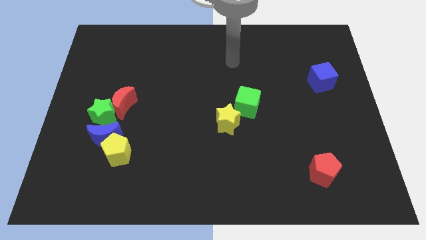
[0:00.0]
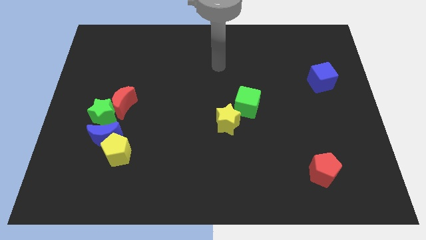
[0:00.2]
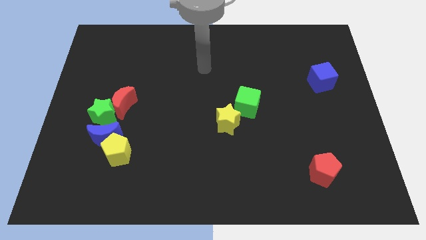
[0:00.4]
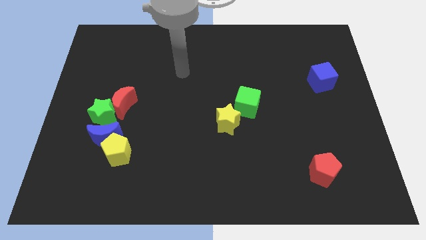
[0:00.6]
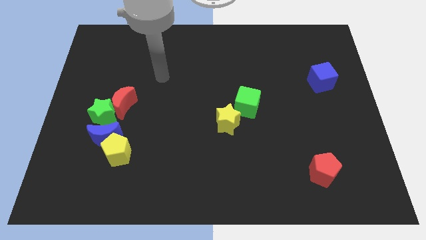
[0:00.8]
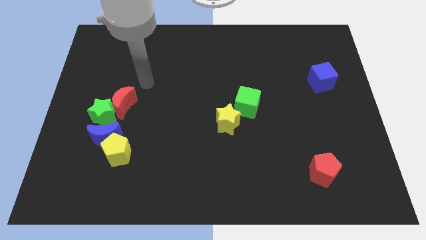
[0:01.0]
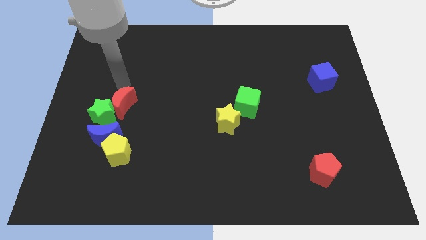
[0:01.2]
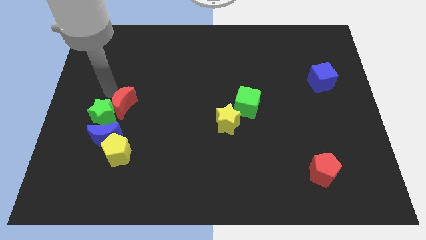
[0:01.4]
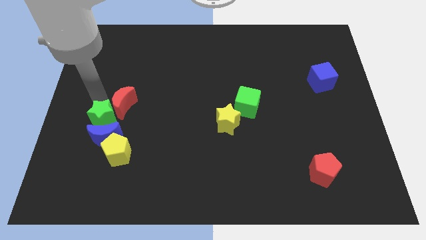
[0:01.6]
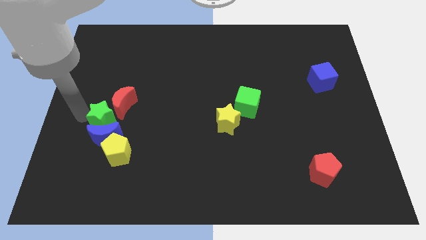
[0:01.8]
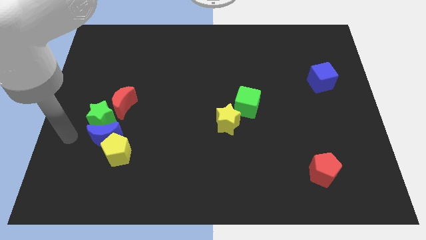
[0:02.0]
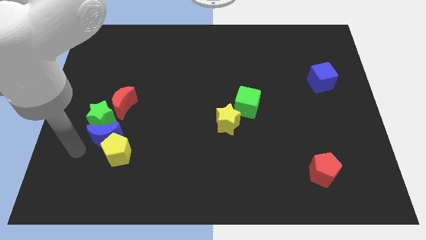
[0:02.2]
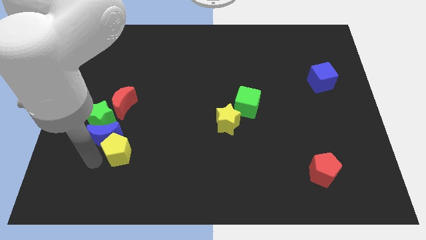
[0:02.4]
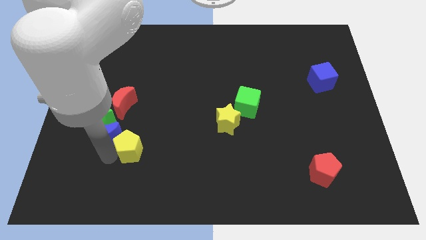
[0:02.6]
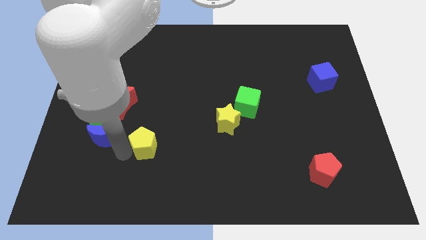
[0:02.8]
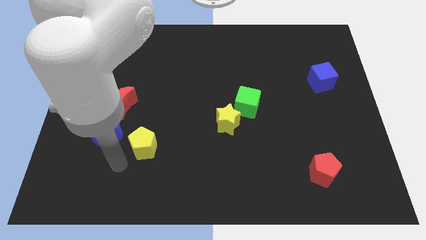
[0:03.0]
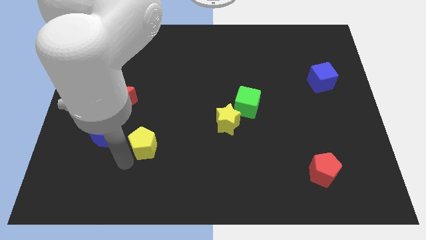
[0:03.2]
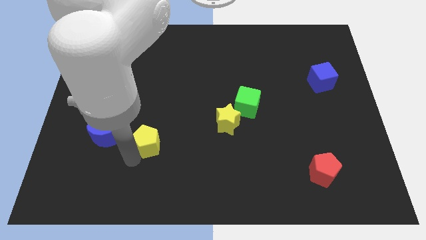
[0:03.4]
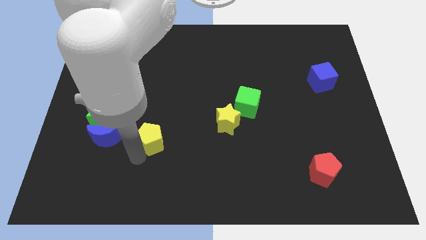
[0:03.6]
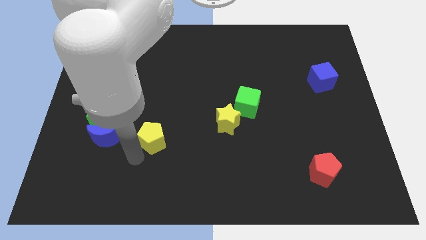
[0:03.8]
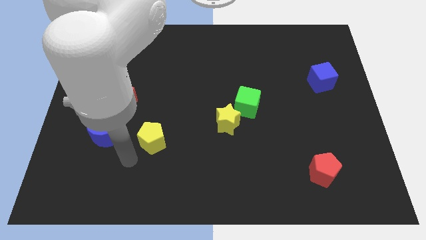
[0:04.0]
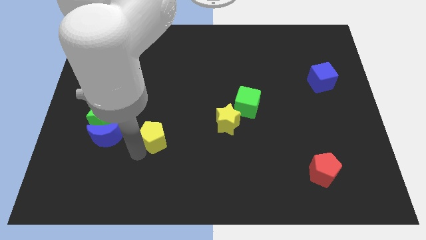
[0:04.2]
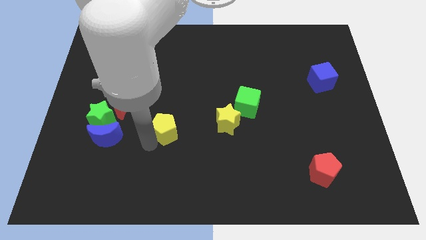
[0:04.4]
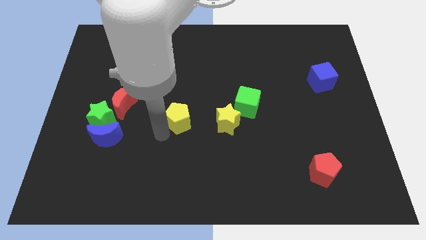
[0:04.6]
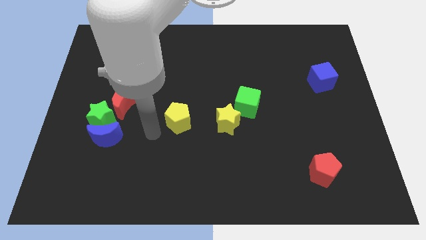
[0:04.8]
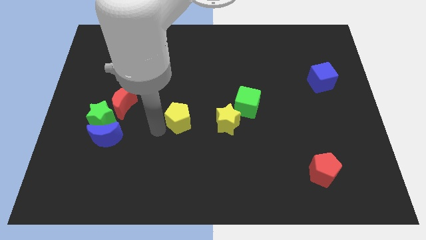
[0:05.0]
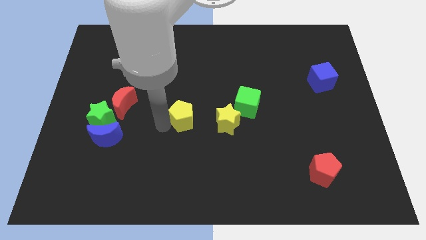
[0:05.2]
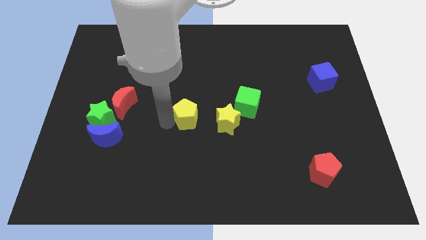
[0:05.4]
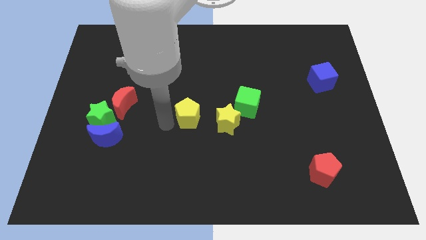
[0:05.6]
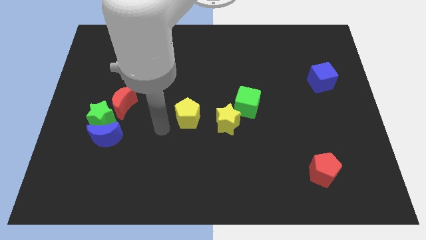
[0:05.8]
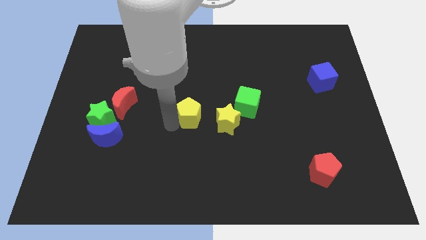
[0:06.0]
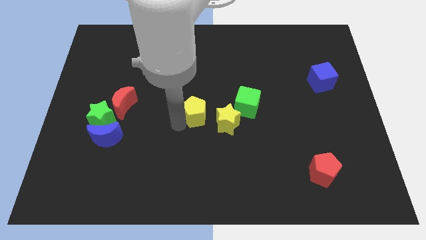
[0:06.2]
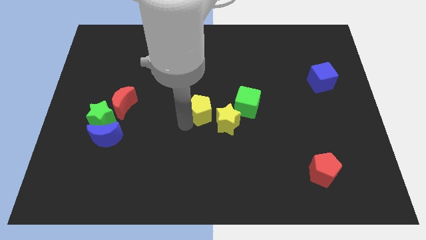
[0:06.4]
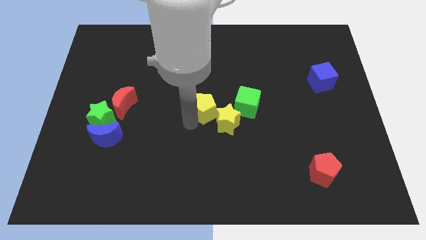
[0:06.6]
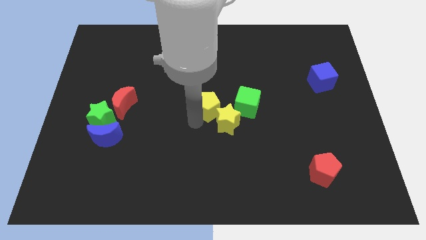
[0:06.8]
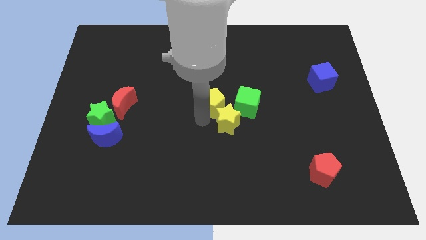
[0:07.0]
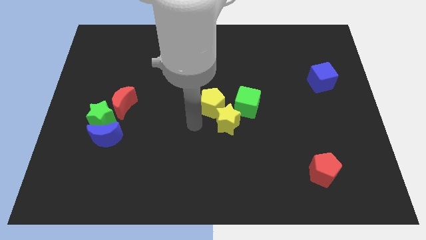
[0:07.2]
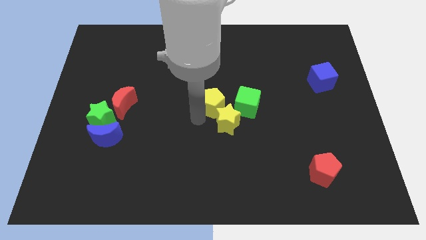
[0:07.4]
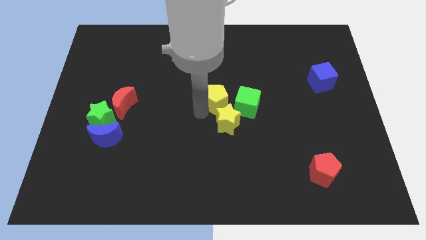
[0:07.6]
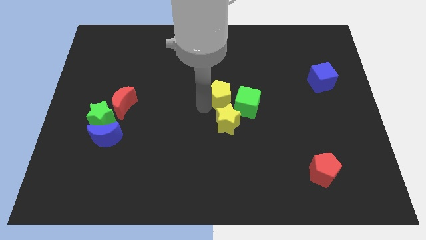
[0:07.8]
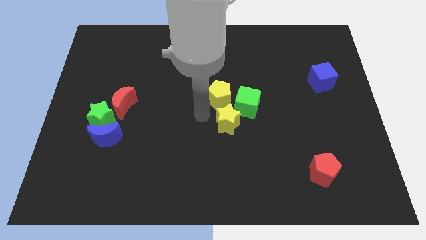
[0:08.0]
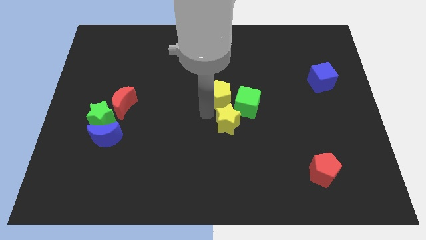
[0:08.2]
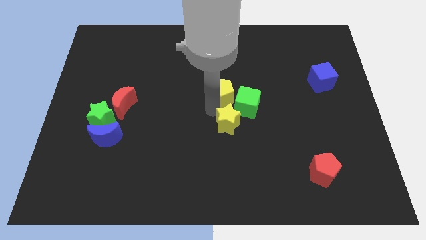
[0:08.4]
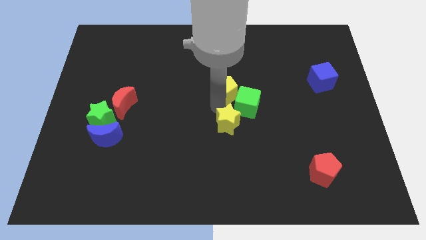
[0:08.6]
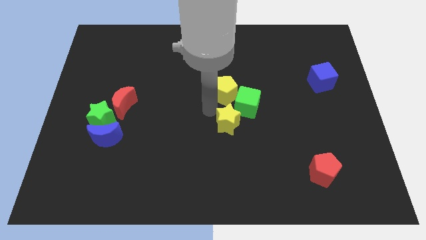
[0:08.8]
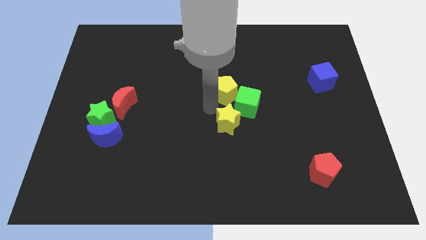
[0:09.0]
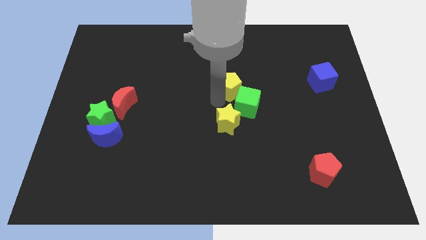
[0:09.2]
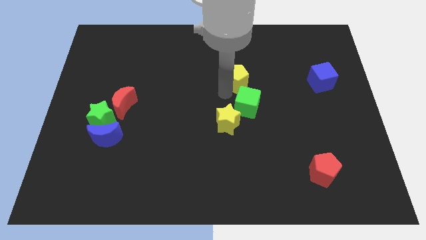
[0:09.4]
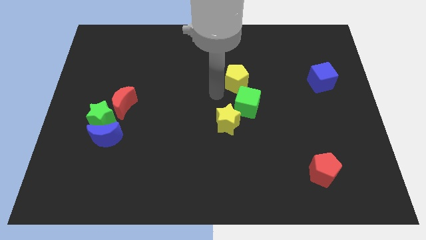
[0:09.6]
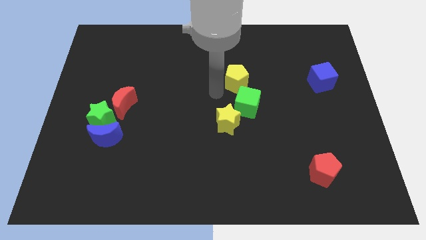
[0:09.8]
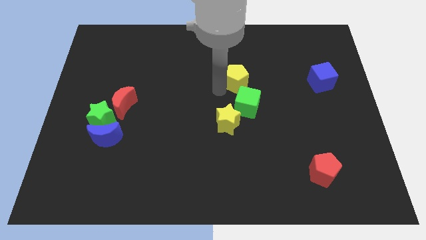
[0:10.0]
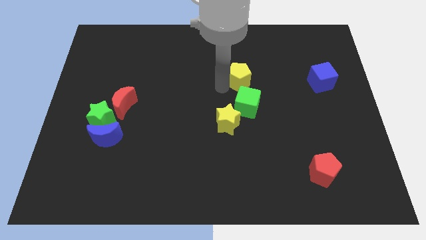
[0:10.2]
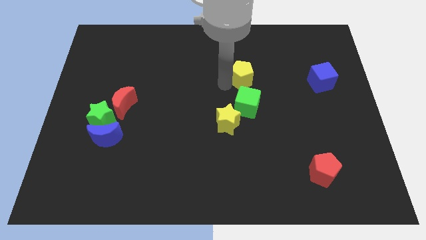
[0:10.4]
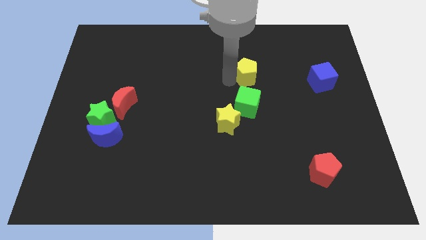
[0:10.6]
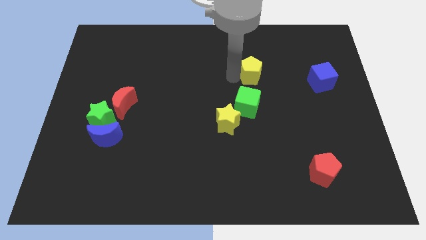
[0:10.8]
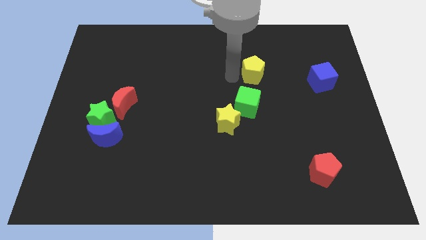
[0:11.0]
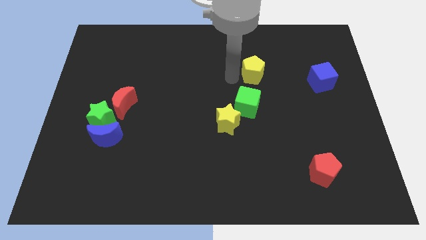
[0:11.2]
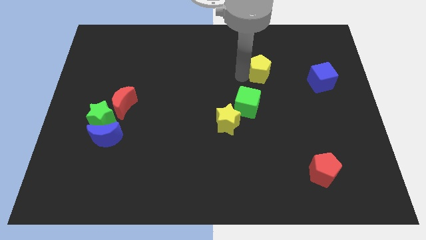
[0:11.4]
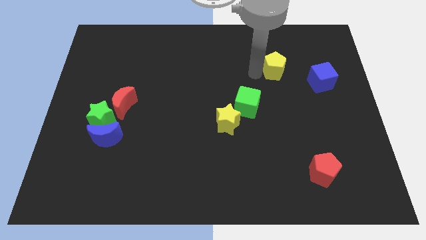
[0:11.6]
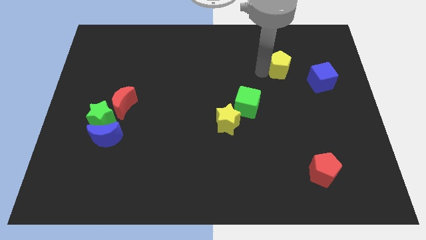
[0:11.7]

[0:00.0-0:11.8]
slide the yellow pentagon diagonally up and to the left of the blue cube

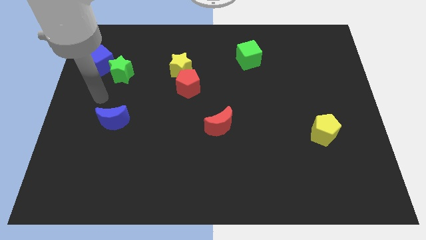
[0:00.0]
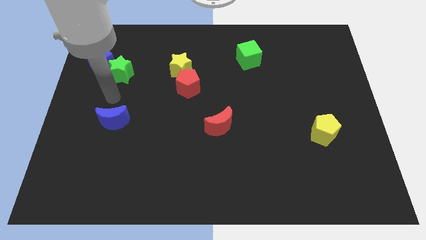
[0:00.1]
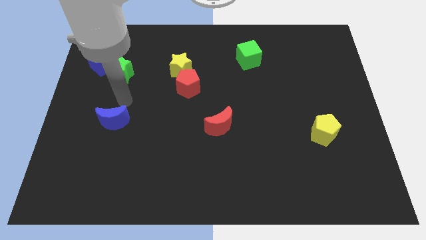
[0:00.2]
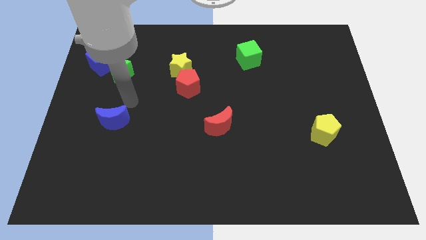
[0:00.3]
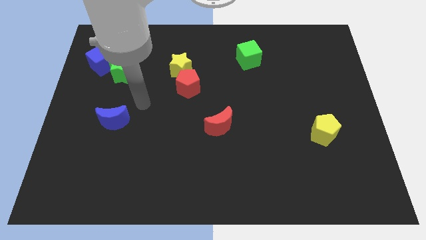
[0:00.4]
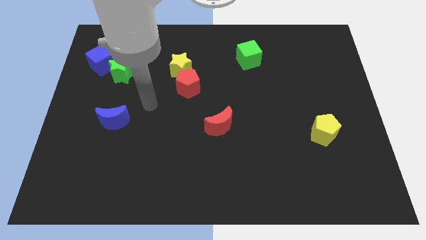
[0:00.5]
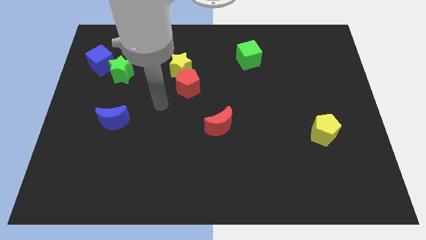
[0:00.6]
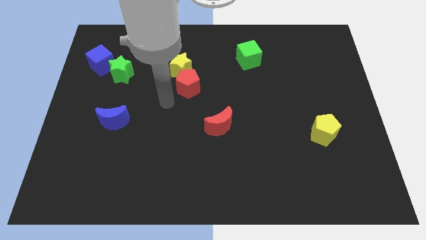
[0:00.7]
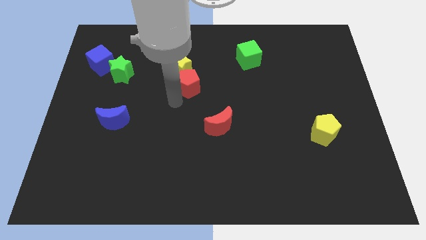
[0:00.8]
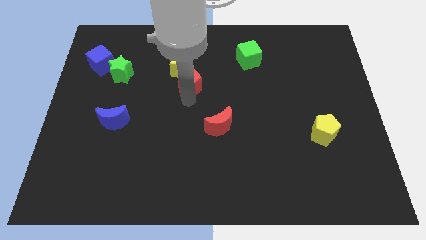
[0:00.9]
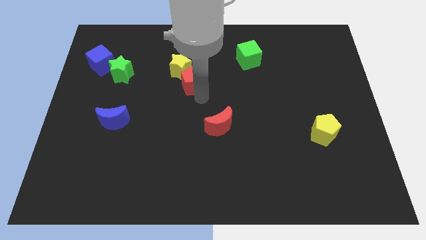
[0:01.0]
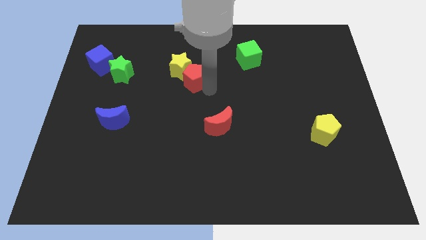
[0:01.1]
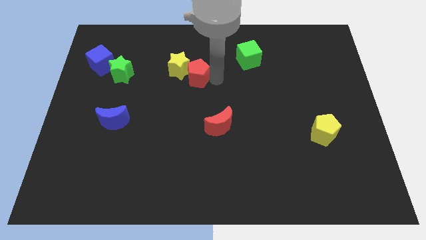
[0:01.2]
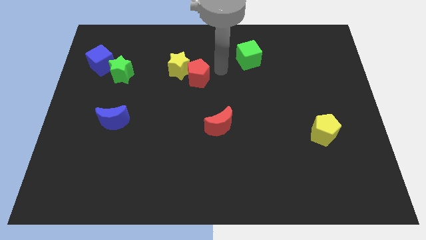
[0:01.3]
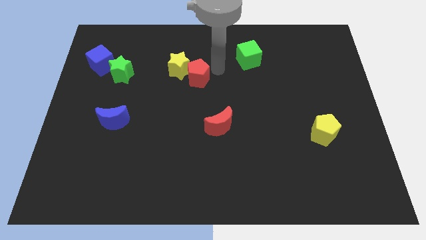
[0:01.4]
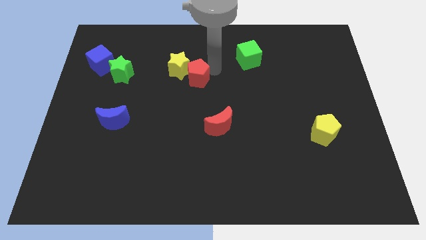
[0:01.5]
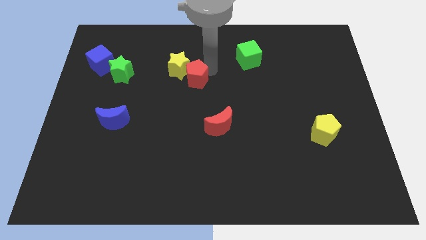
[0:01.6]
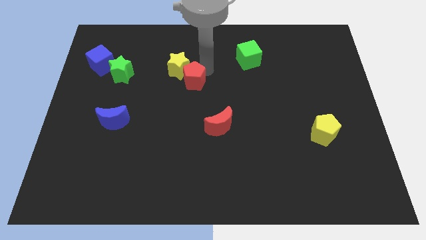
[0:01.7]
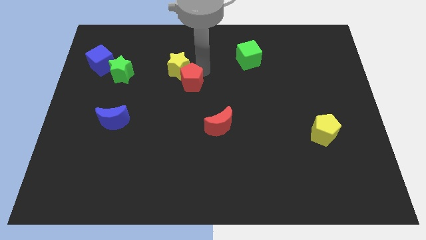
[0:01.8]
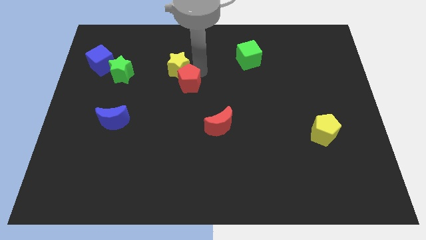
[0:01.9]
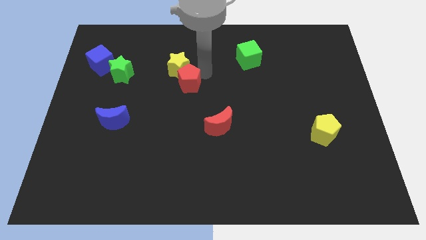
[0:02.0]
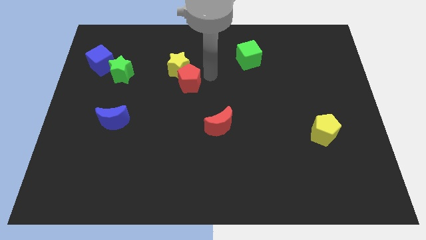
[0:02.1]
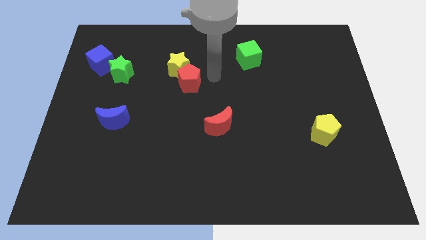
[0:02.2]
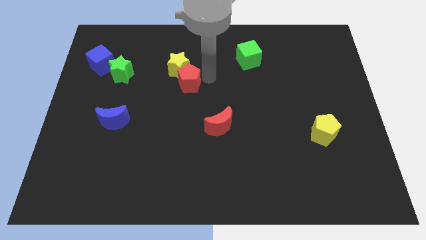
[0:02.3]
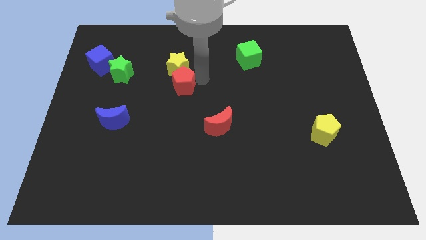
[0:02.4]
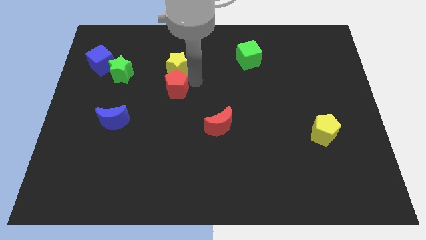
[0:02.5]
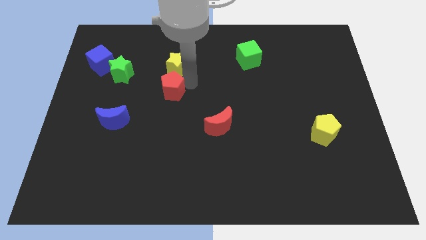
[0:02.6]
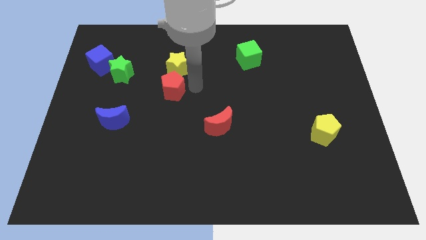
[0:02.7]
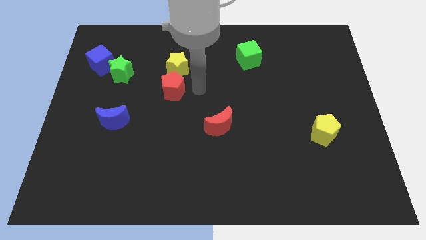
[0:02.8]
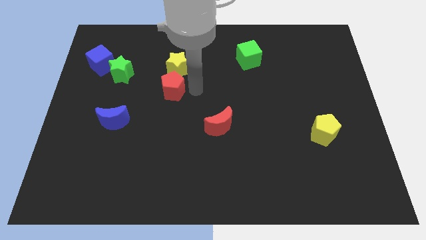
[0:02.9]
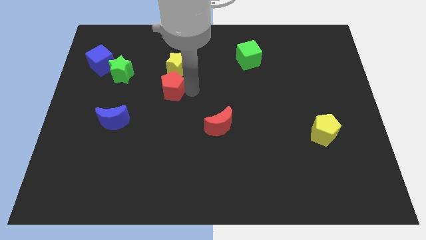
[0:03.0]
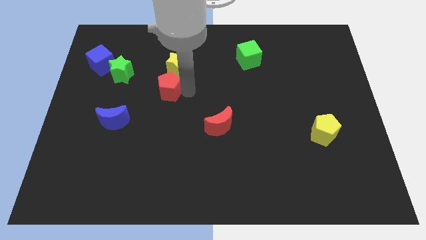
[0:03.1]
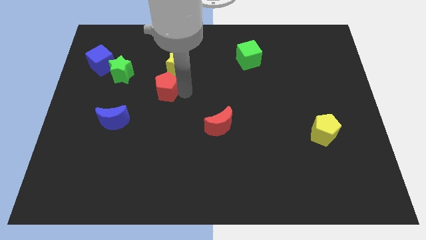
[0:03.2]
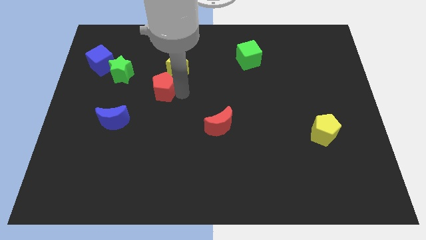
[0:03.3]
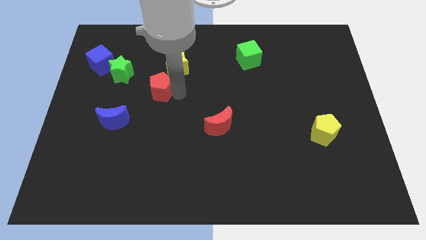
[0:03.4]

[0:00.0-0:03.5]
put the red pentagon diagonally down and to the right of the green star
